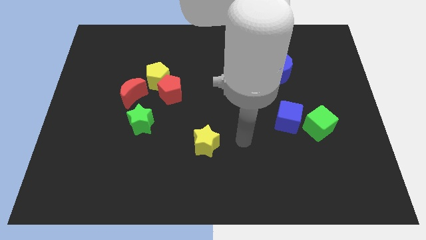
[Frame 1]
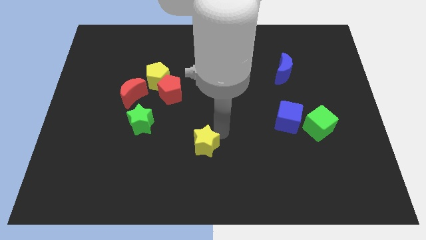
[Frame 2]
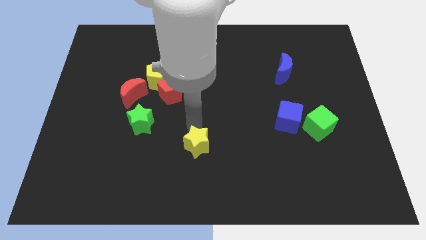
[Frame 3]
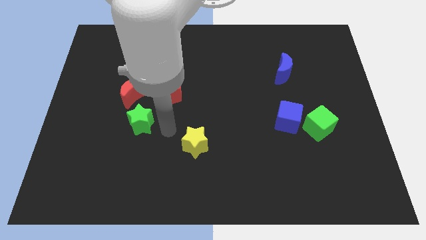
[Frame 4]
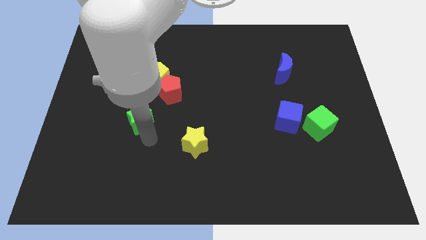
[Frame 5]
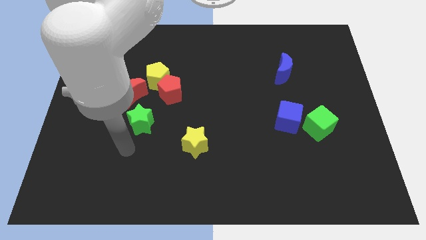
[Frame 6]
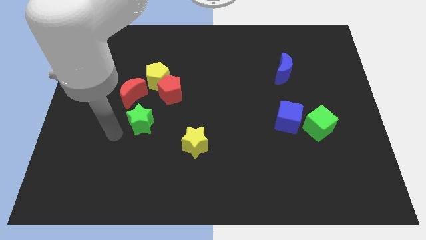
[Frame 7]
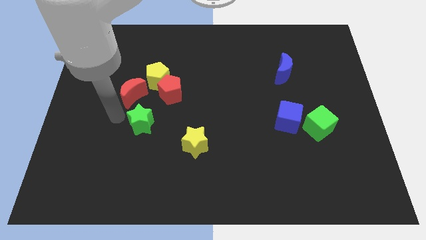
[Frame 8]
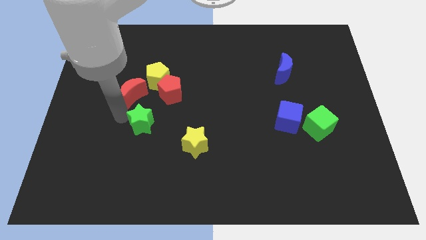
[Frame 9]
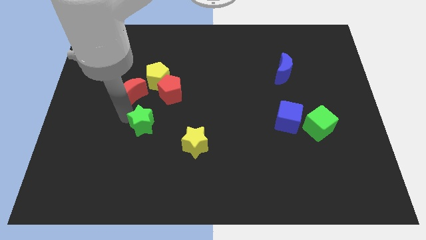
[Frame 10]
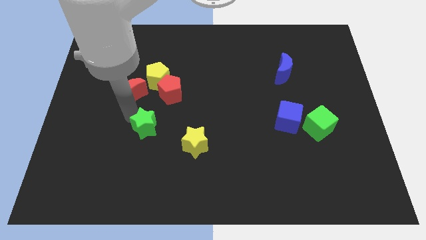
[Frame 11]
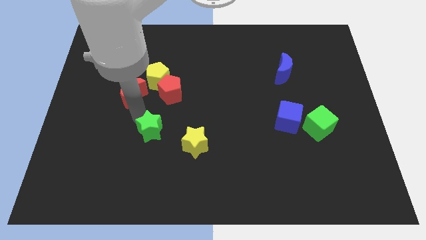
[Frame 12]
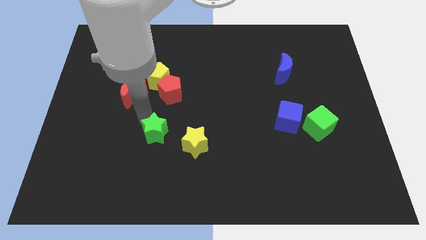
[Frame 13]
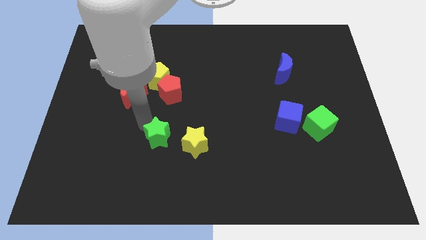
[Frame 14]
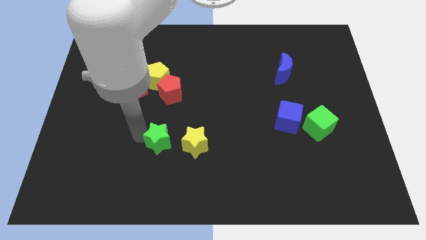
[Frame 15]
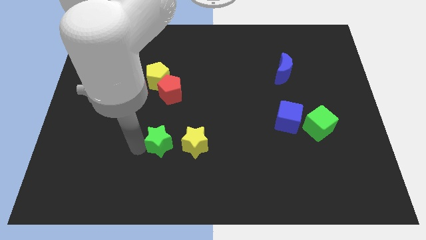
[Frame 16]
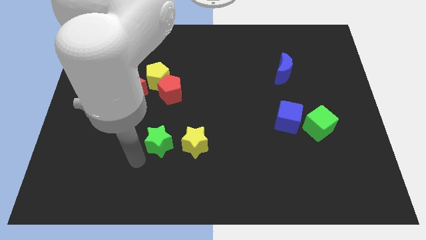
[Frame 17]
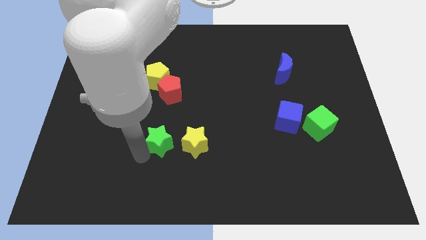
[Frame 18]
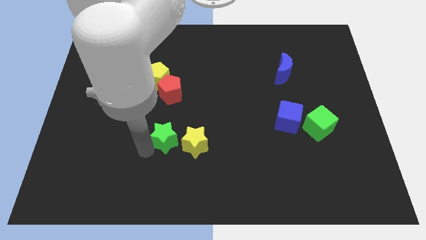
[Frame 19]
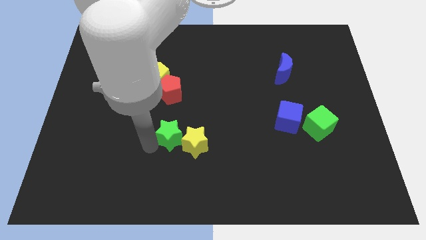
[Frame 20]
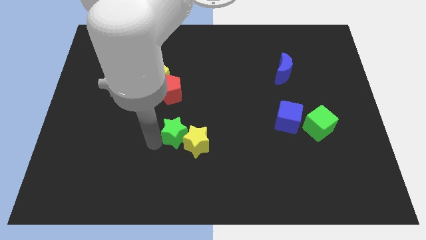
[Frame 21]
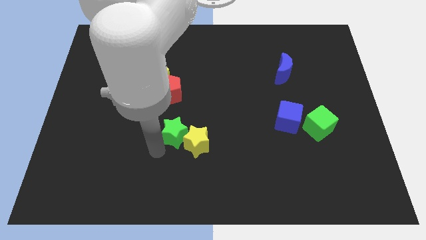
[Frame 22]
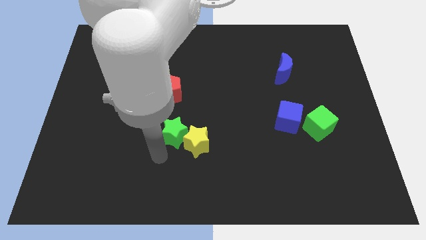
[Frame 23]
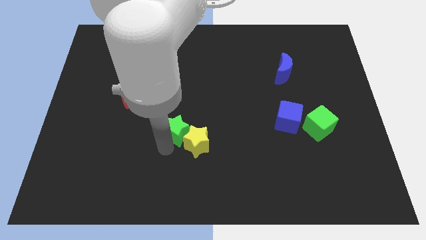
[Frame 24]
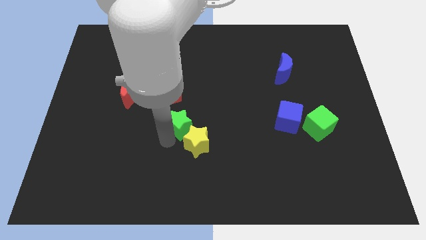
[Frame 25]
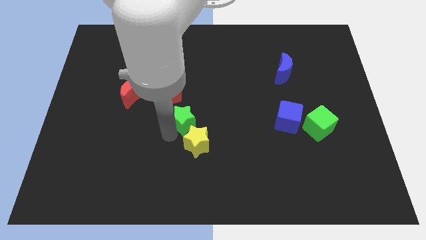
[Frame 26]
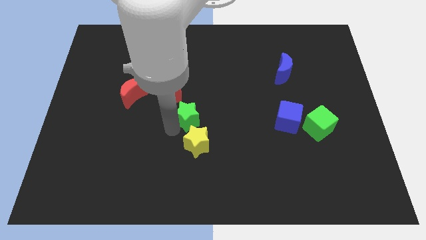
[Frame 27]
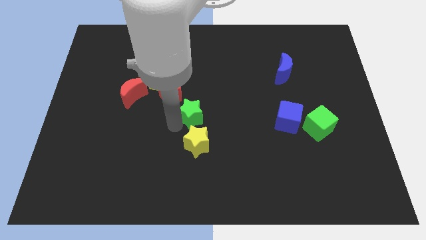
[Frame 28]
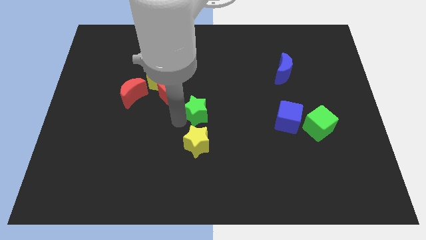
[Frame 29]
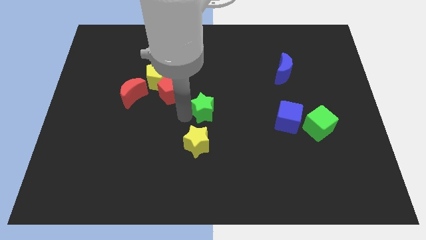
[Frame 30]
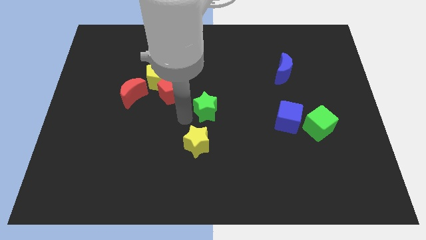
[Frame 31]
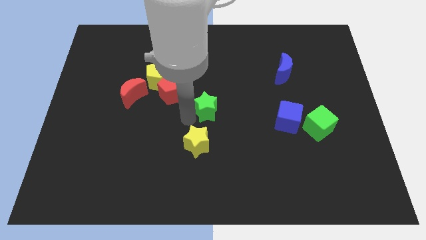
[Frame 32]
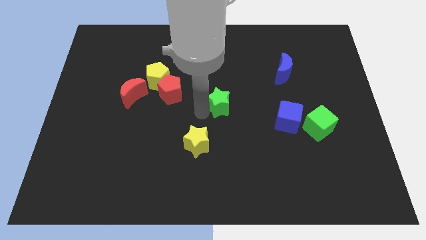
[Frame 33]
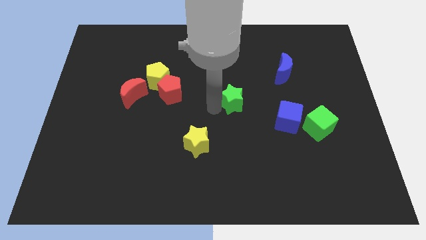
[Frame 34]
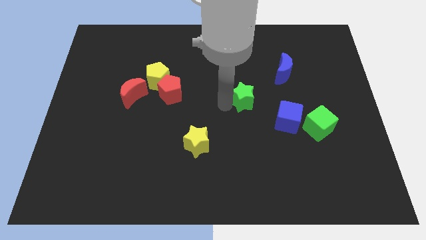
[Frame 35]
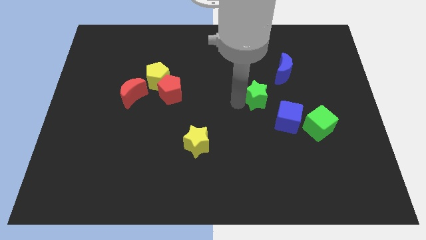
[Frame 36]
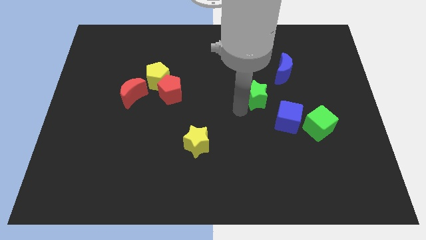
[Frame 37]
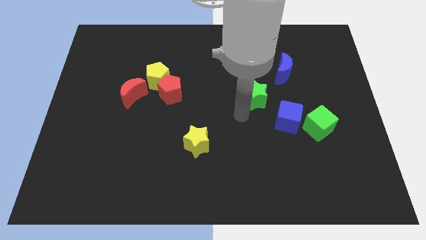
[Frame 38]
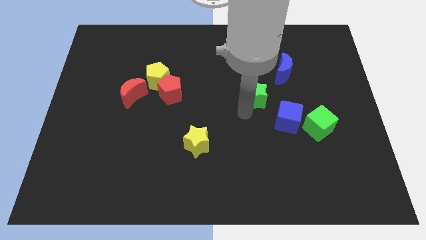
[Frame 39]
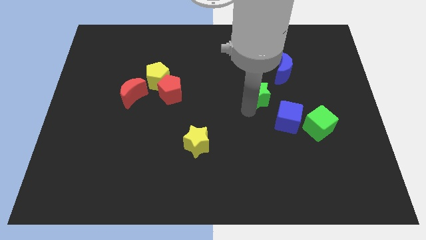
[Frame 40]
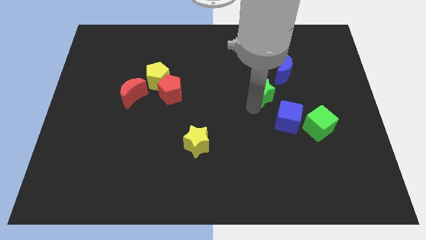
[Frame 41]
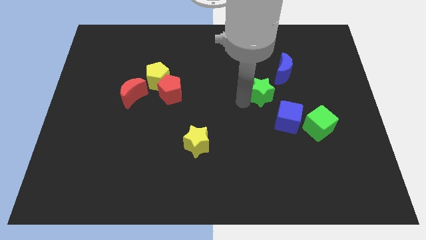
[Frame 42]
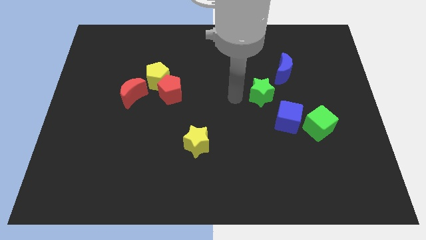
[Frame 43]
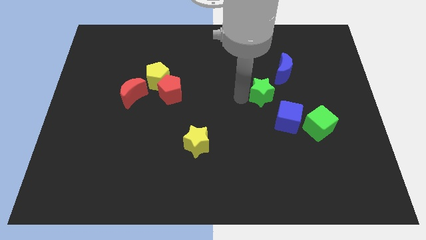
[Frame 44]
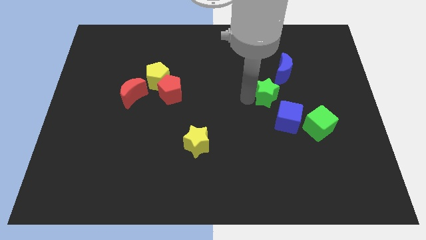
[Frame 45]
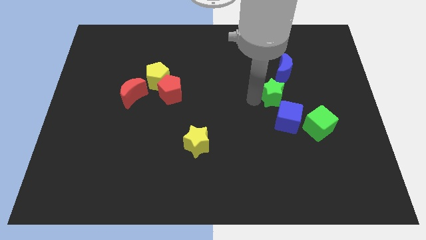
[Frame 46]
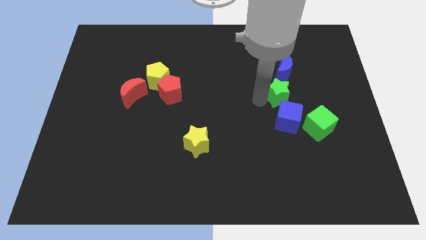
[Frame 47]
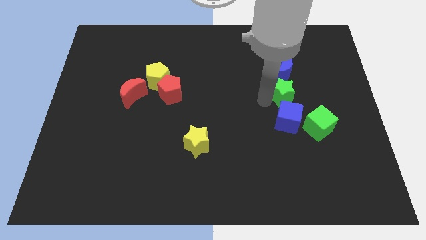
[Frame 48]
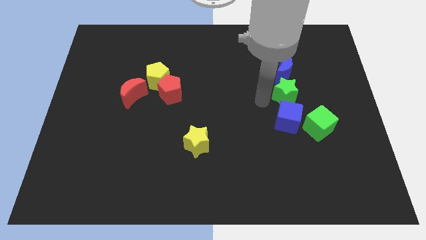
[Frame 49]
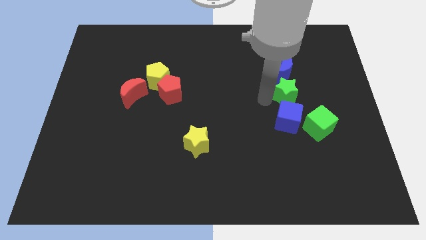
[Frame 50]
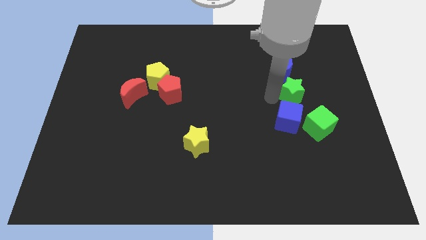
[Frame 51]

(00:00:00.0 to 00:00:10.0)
push the green star to the bottom right of the blue moon

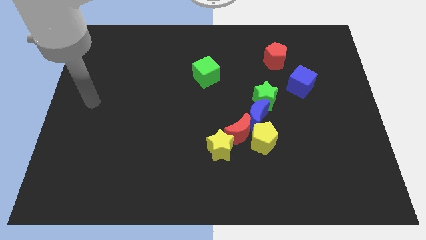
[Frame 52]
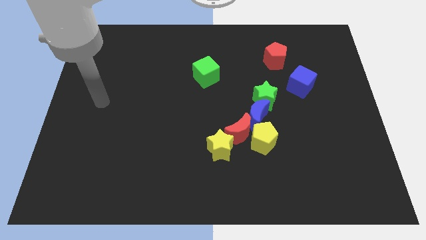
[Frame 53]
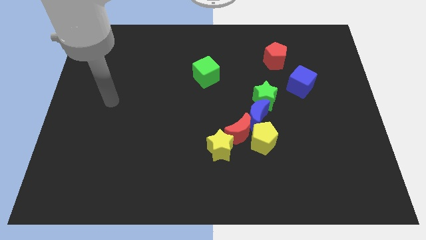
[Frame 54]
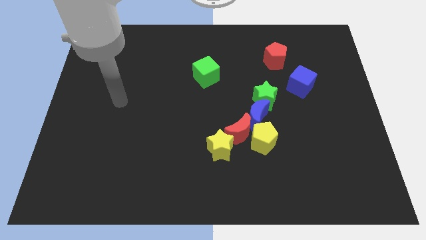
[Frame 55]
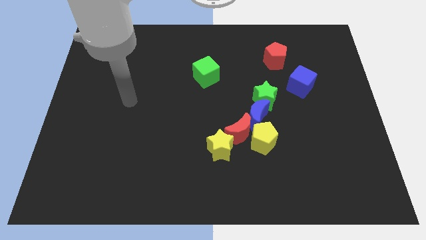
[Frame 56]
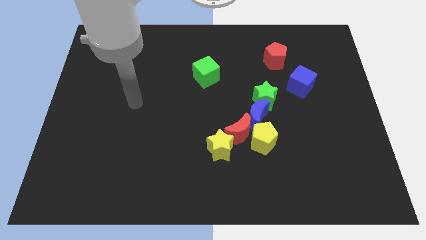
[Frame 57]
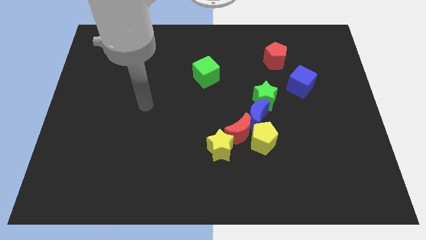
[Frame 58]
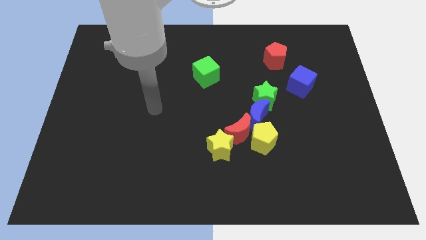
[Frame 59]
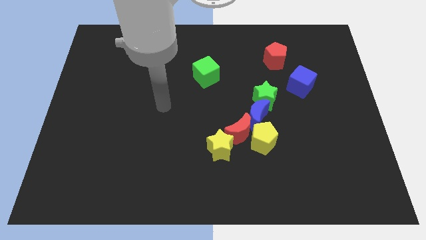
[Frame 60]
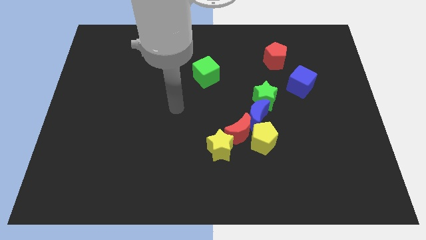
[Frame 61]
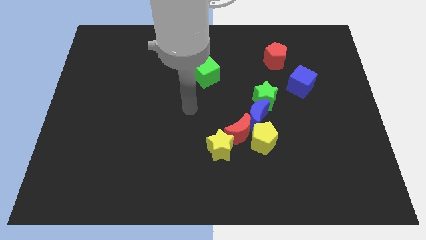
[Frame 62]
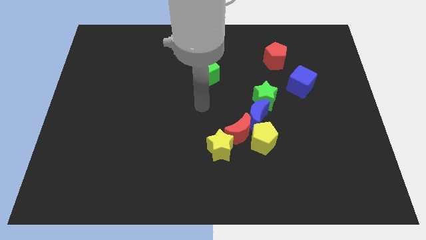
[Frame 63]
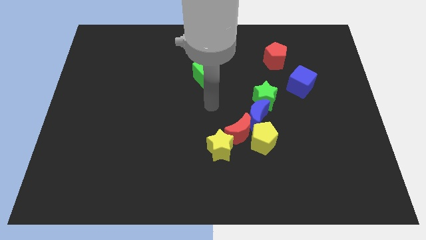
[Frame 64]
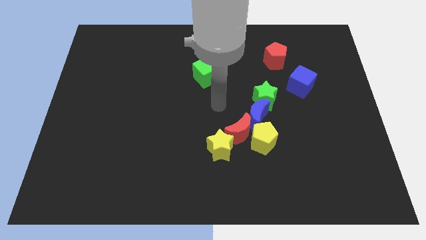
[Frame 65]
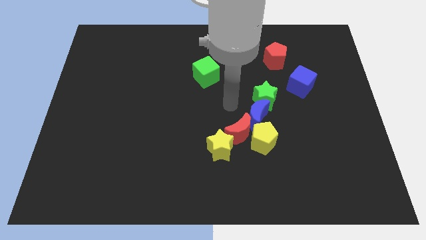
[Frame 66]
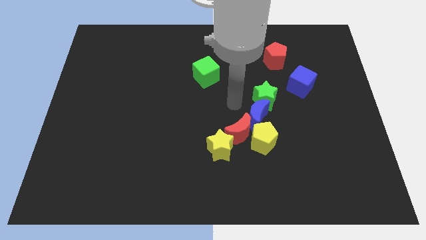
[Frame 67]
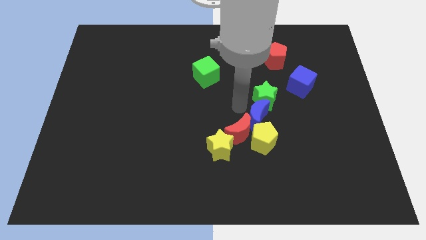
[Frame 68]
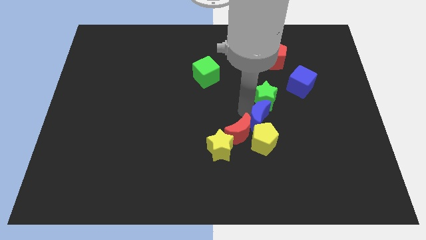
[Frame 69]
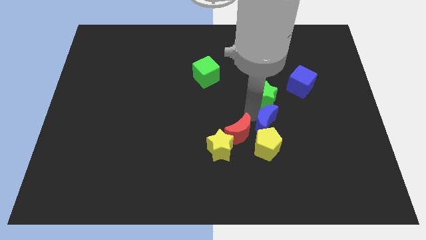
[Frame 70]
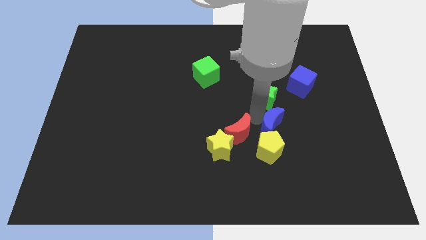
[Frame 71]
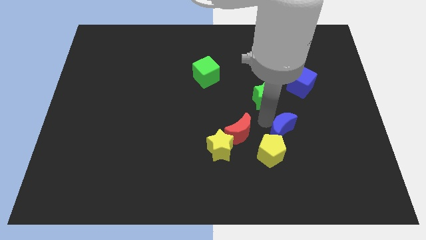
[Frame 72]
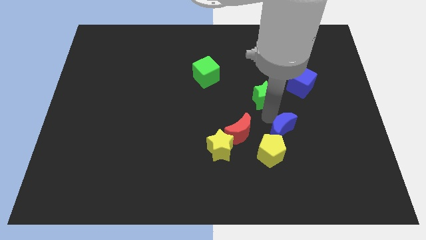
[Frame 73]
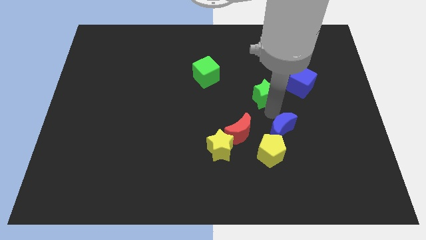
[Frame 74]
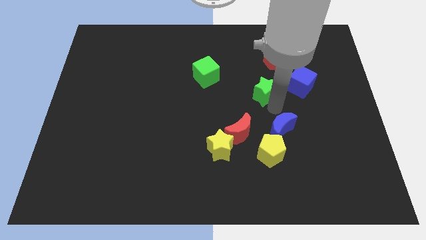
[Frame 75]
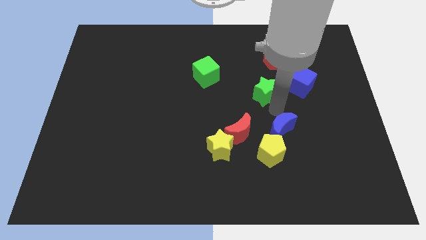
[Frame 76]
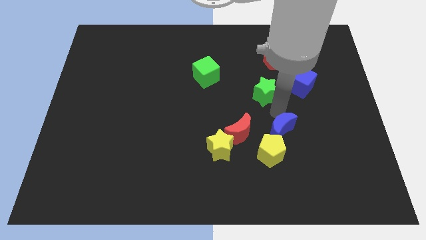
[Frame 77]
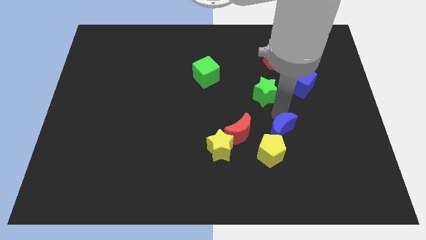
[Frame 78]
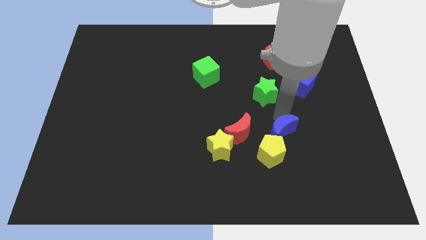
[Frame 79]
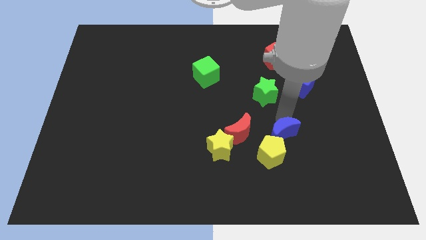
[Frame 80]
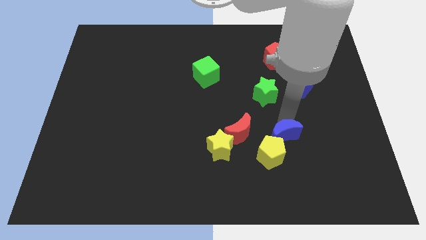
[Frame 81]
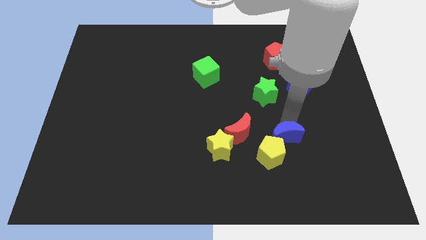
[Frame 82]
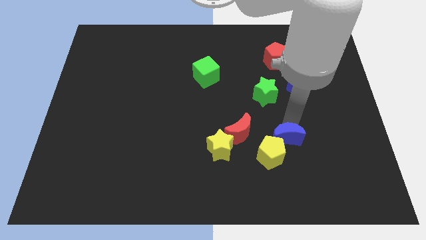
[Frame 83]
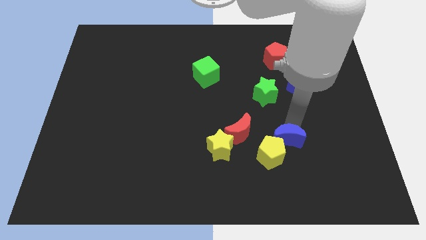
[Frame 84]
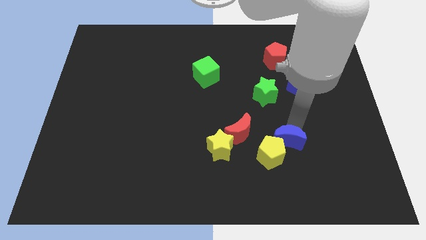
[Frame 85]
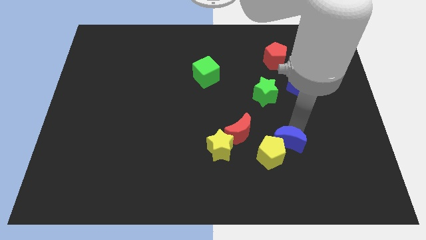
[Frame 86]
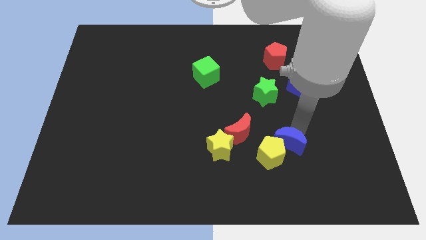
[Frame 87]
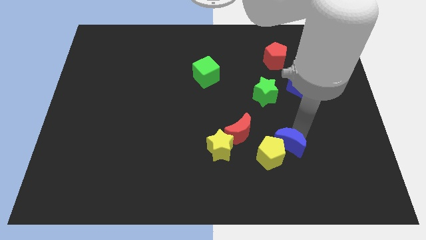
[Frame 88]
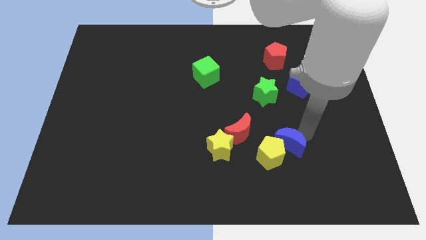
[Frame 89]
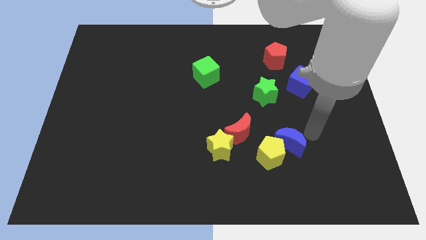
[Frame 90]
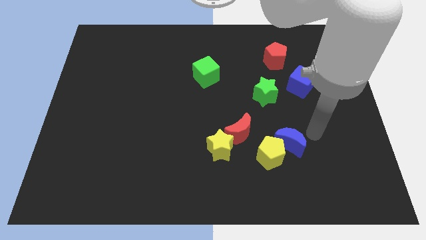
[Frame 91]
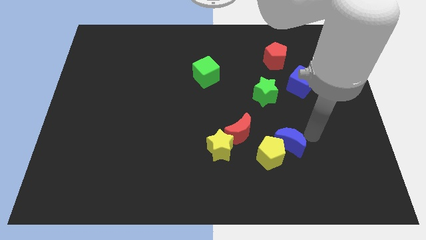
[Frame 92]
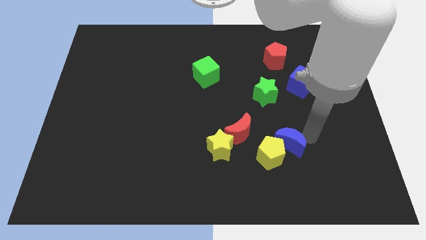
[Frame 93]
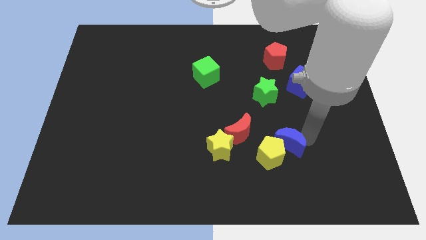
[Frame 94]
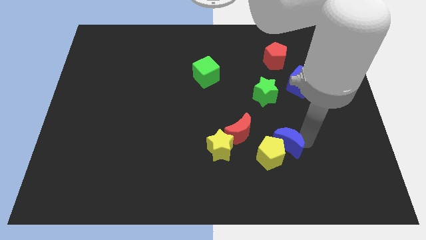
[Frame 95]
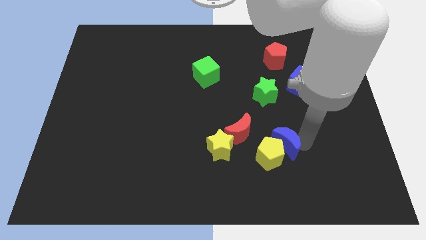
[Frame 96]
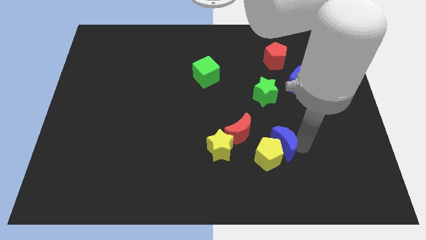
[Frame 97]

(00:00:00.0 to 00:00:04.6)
push the blue moon diagonally down and to the right of the red moon
